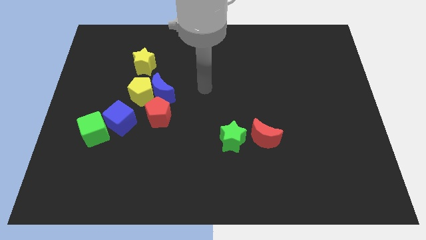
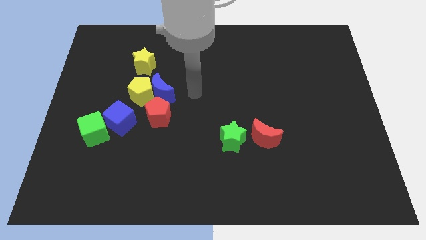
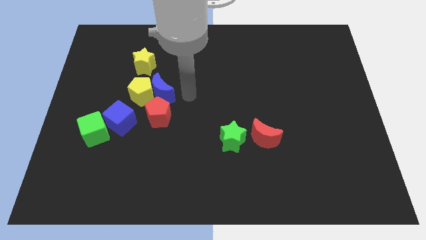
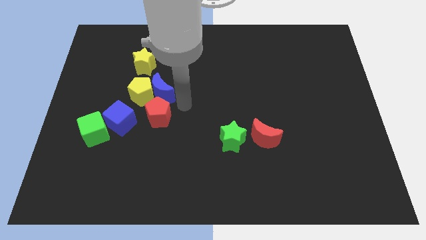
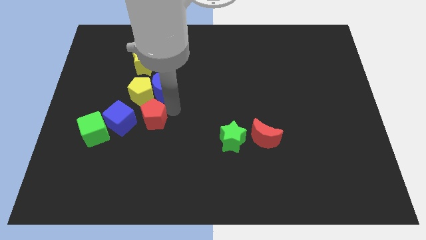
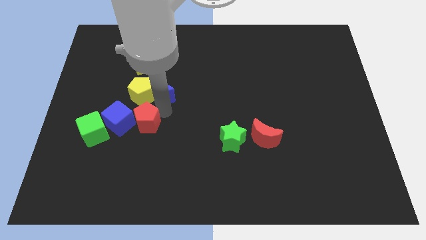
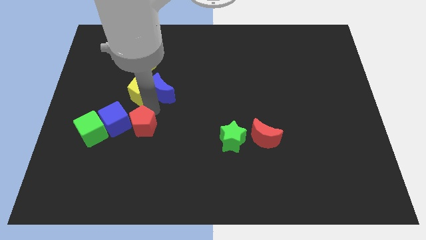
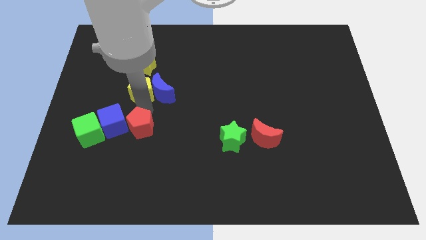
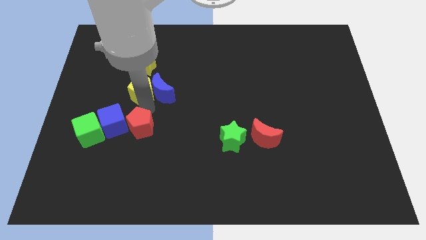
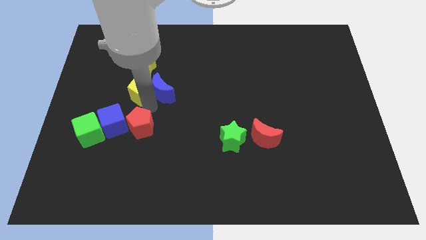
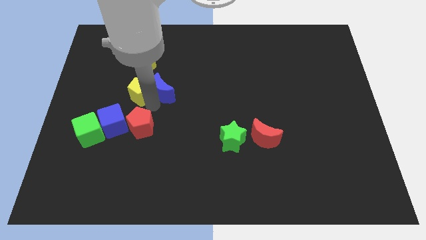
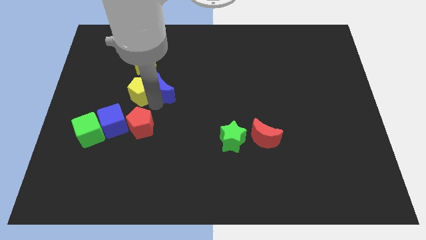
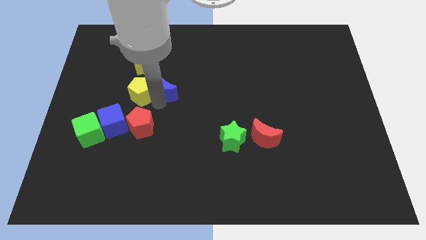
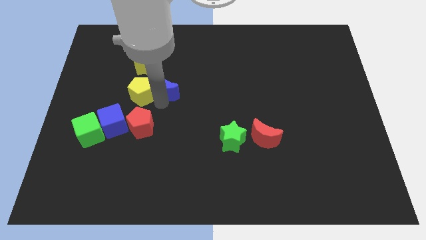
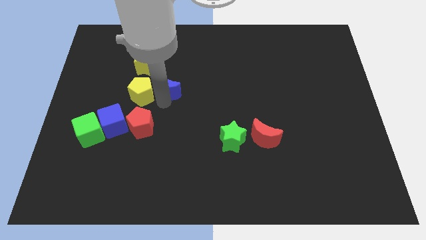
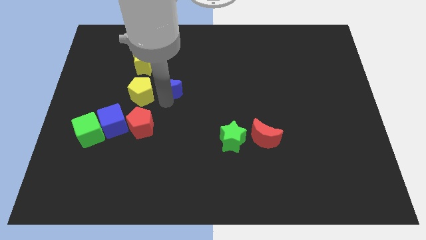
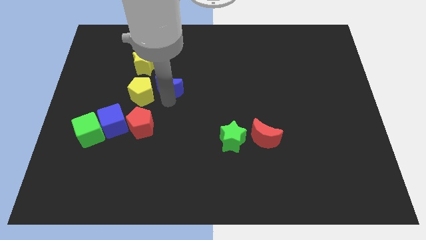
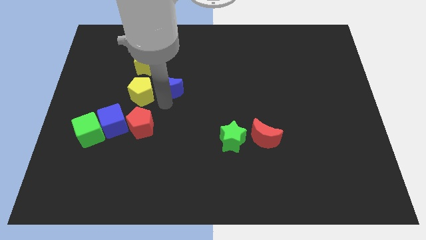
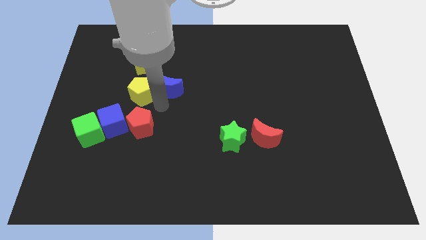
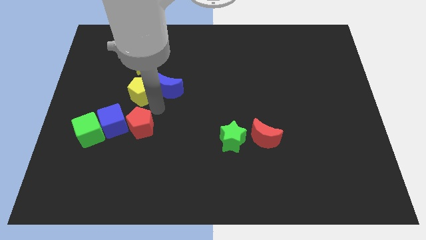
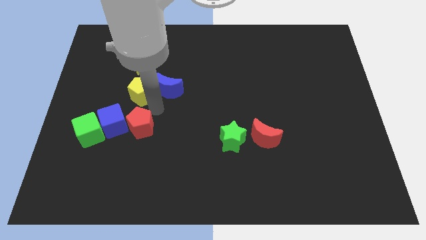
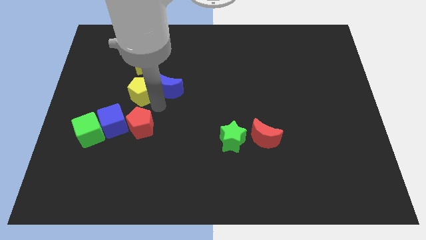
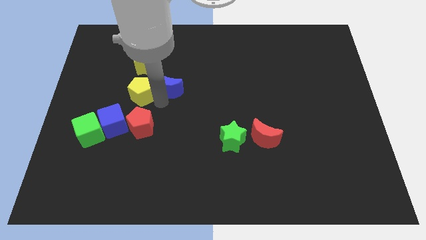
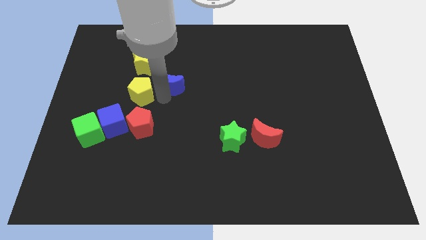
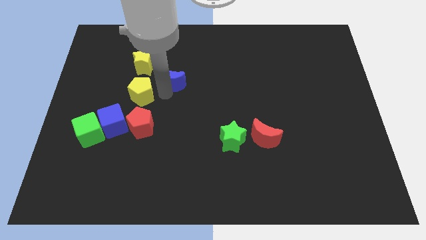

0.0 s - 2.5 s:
move the blue moon away from the yellow pentagon and red pentagon

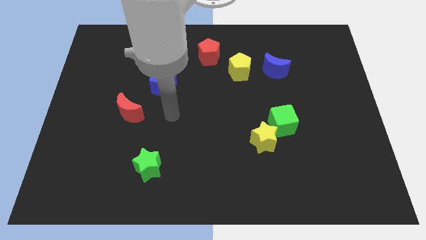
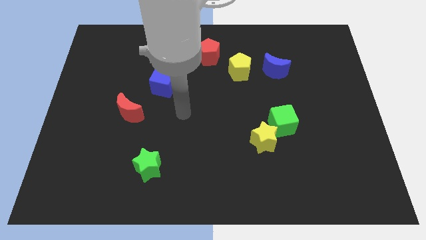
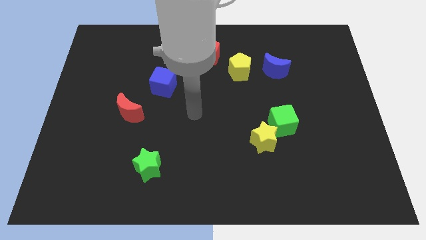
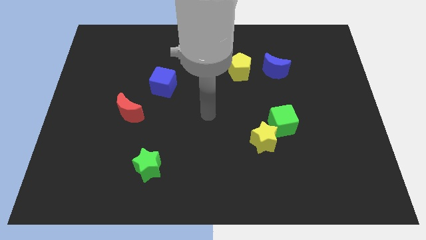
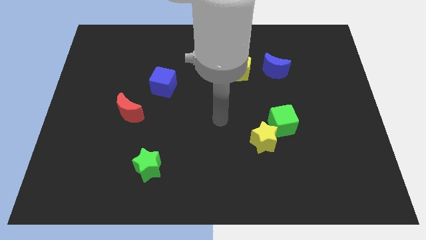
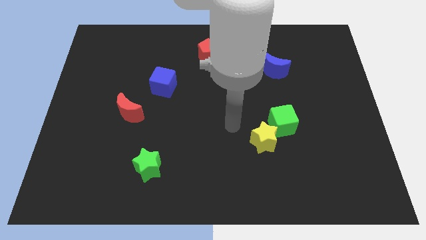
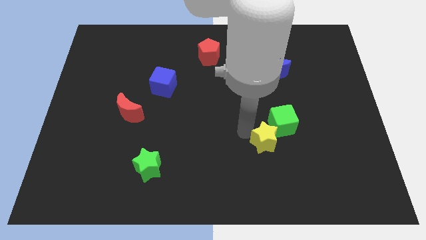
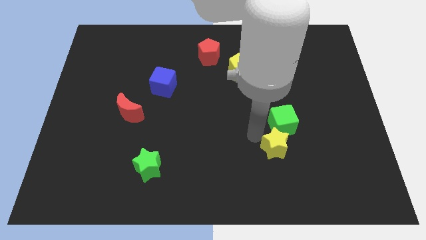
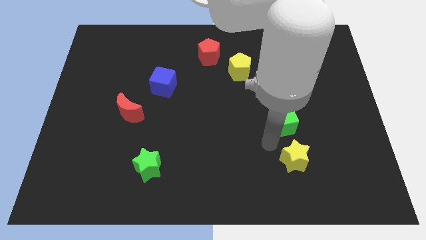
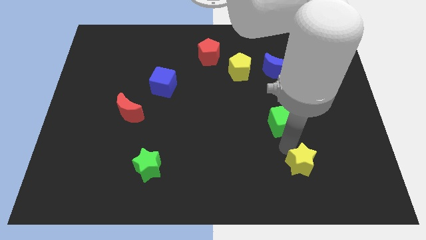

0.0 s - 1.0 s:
move the green cube away from the yellow star

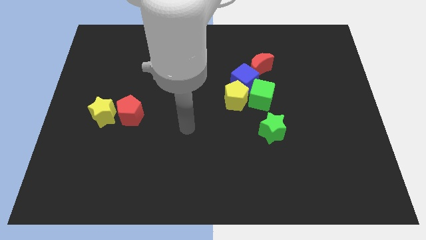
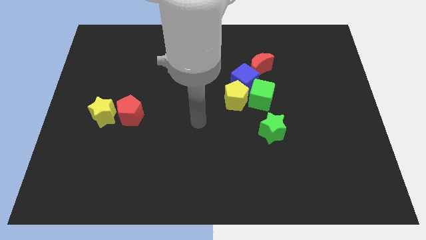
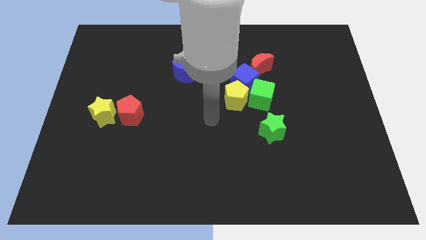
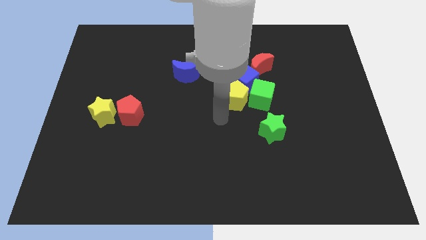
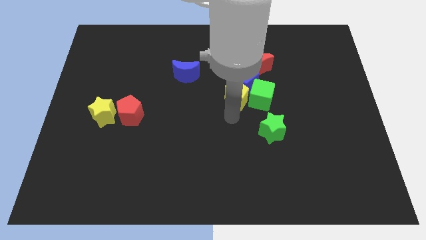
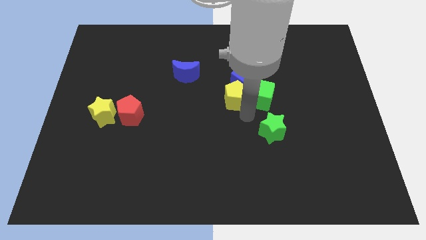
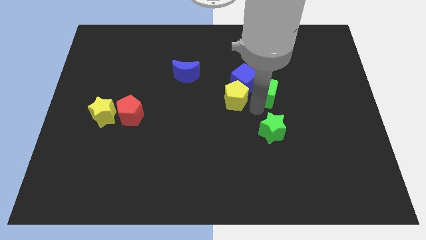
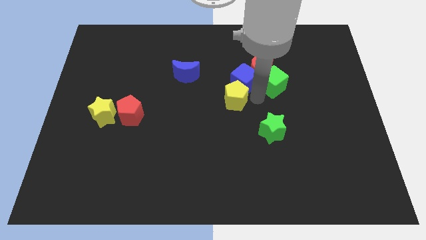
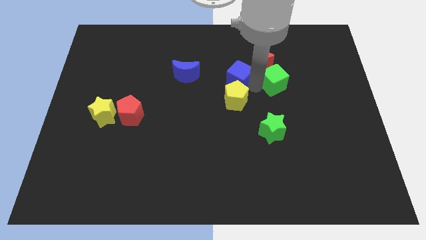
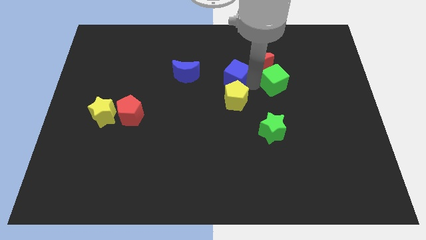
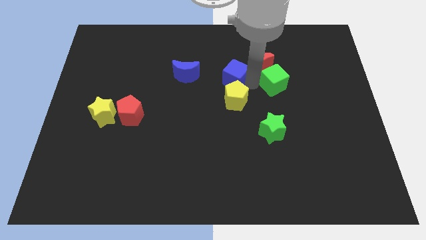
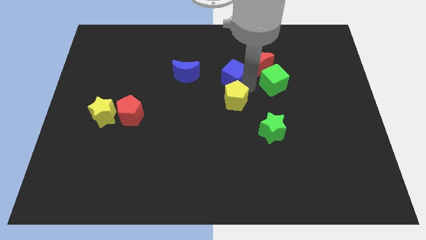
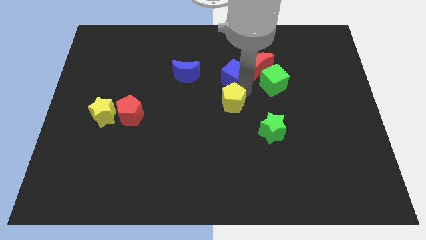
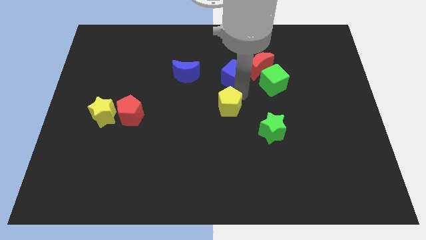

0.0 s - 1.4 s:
separate the yellow pentagon from the blue cube and green cube

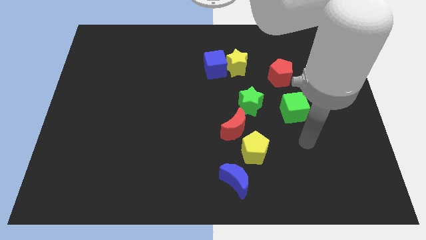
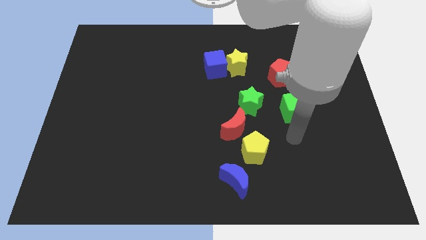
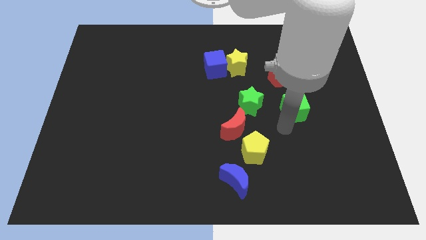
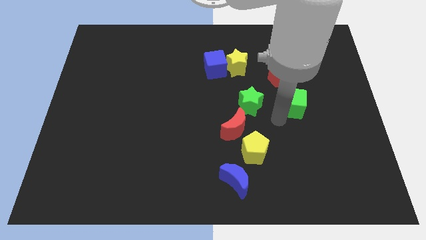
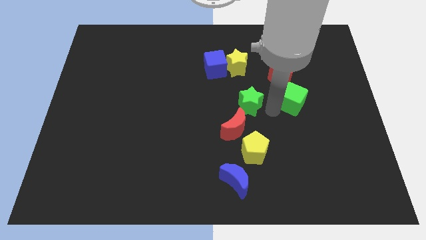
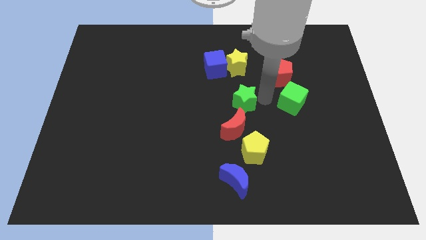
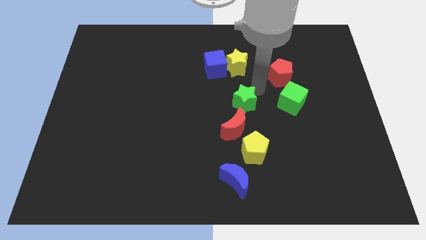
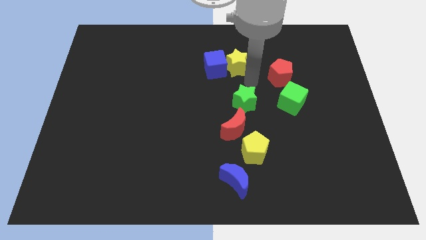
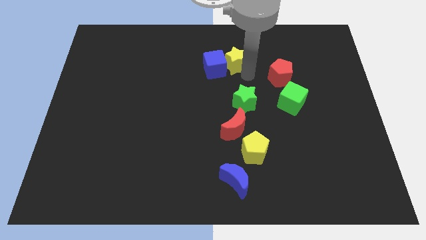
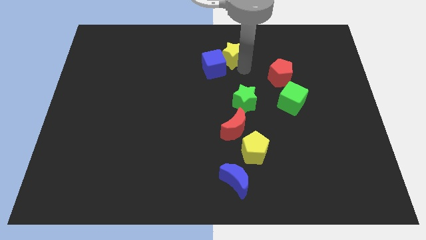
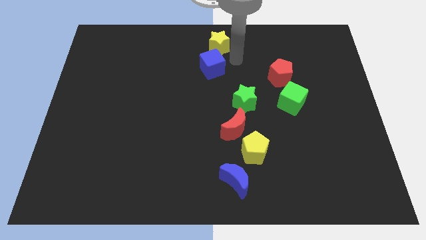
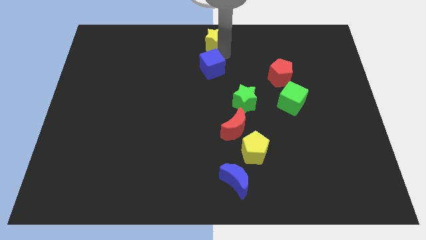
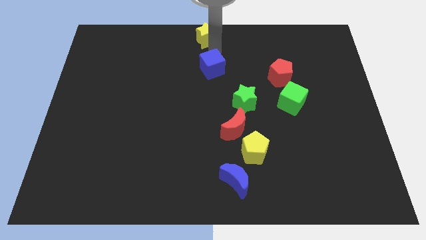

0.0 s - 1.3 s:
separate the blue cube from the yellow star

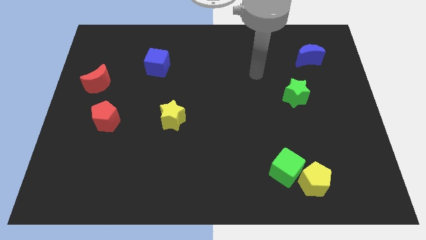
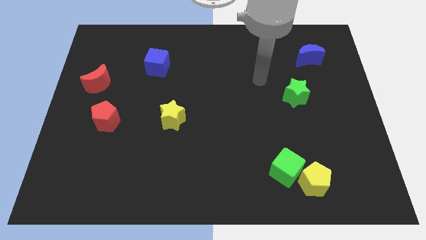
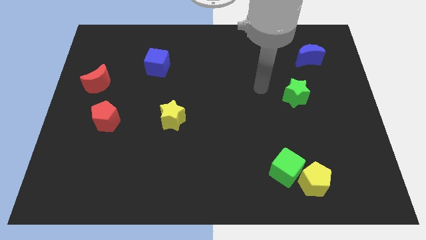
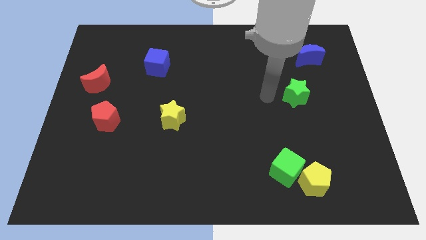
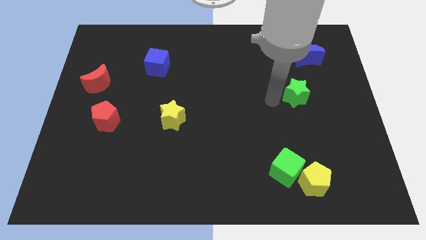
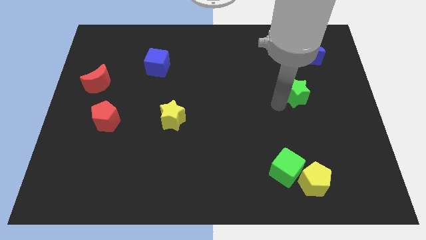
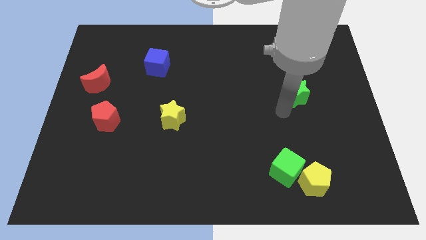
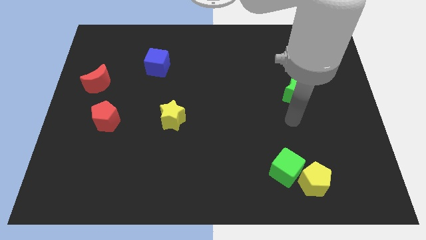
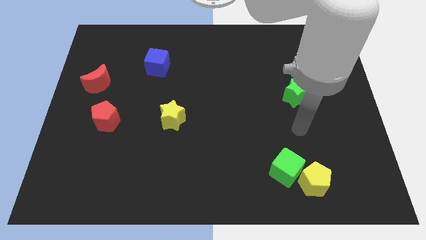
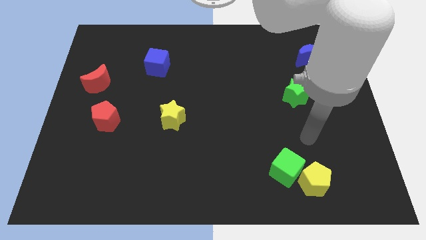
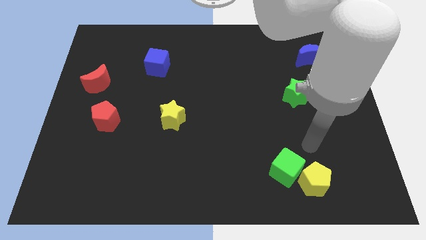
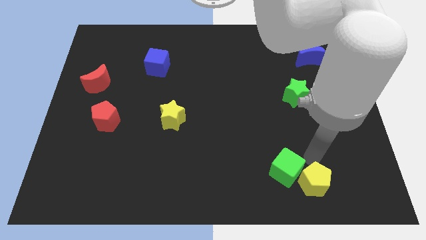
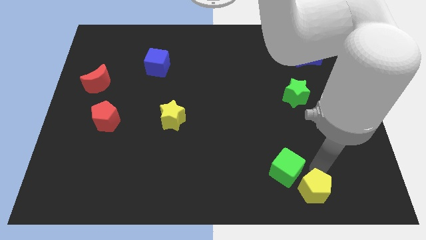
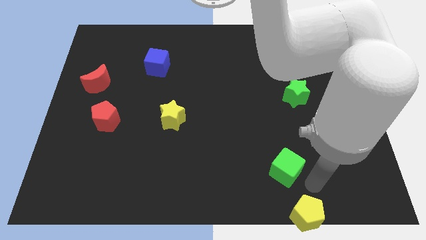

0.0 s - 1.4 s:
pull the green cube apart from the yellow pentagon

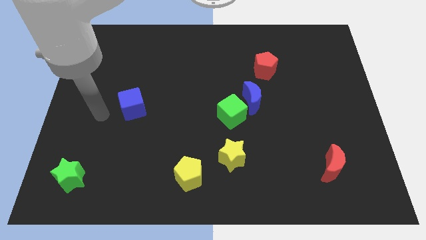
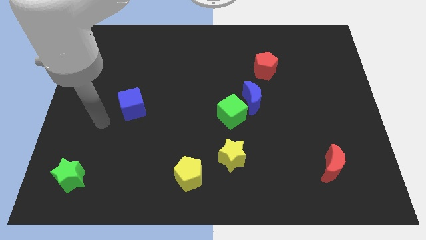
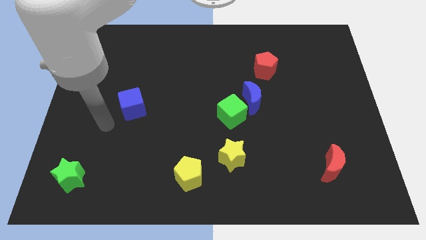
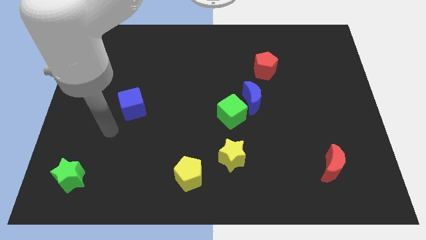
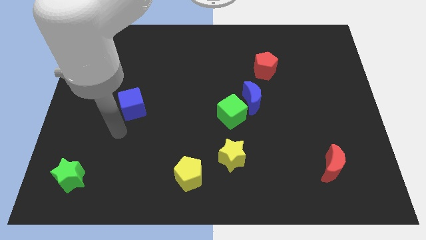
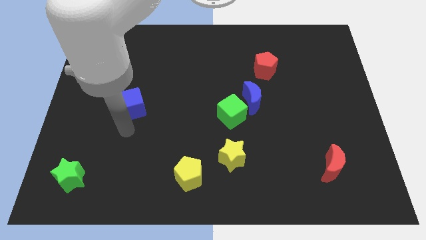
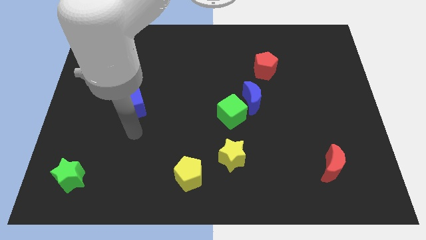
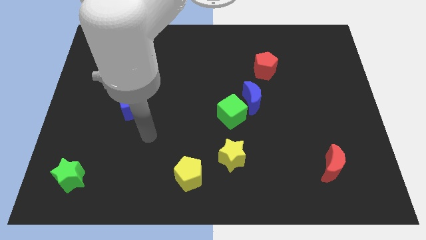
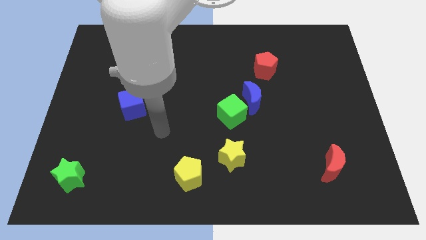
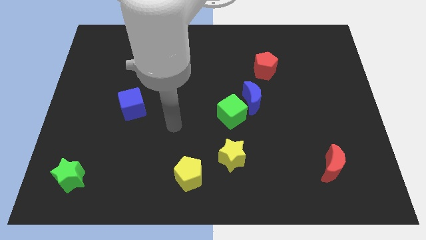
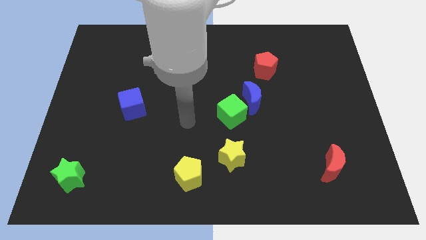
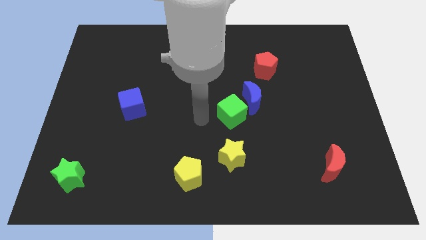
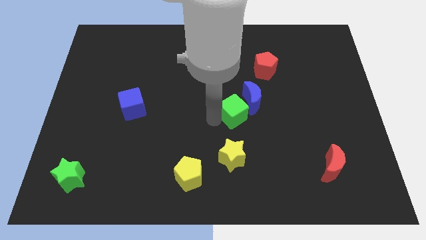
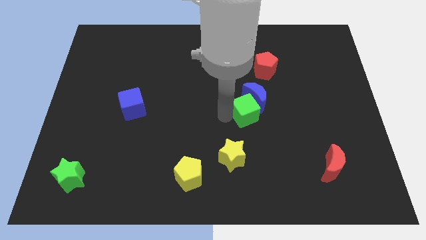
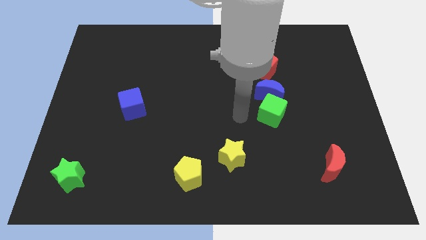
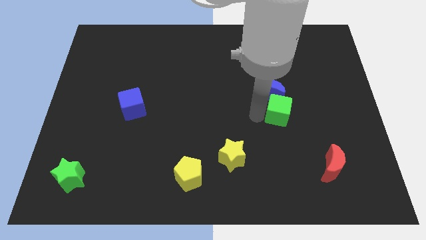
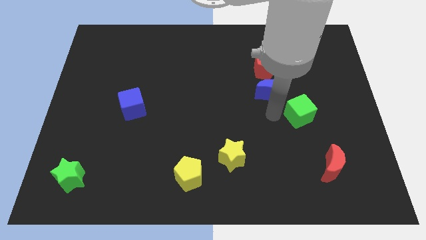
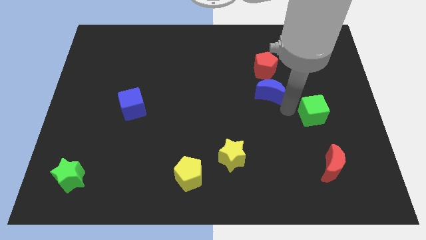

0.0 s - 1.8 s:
separate the blue moon from the green cube
